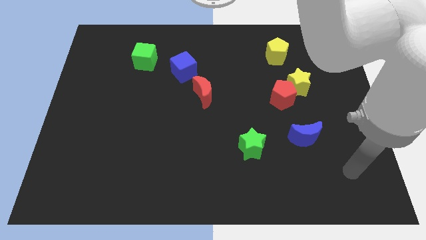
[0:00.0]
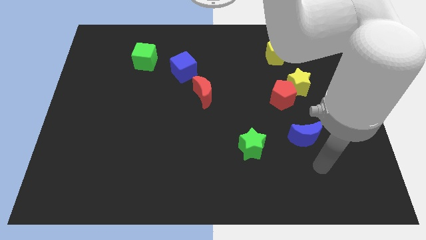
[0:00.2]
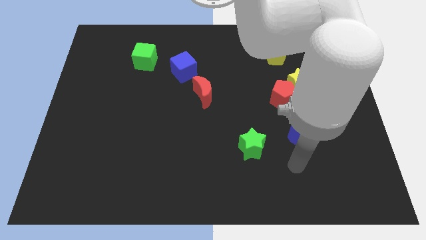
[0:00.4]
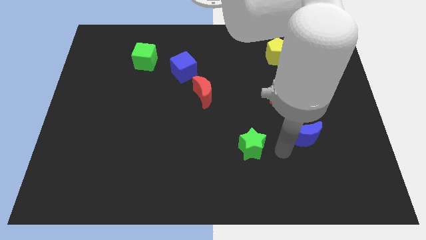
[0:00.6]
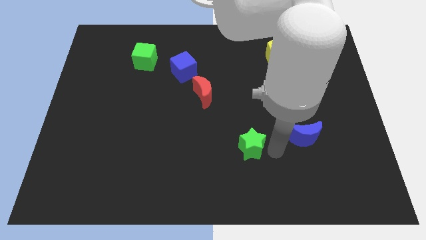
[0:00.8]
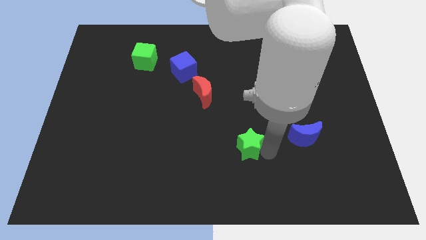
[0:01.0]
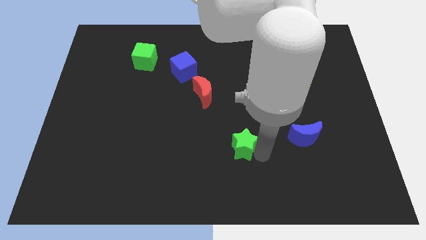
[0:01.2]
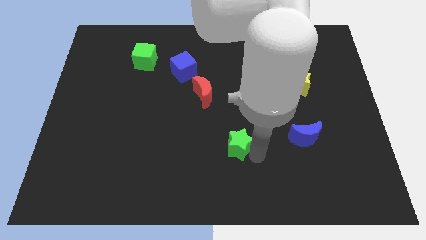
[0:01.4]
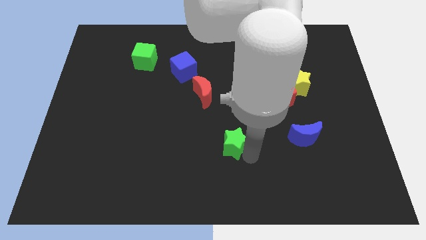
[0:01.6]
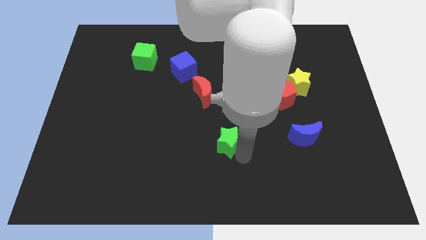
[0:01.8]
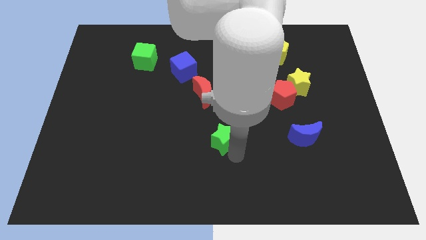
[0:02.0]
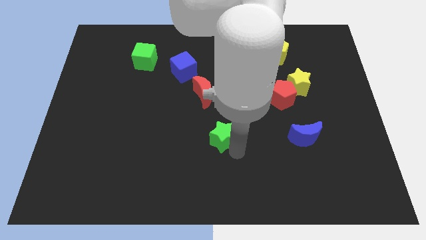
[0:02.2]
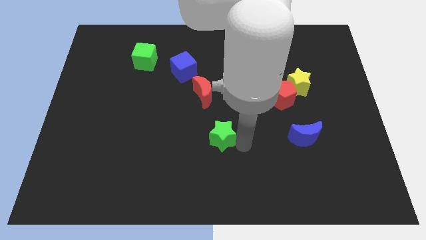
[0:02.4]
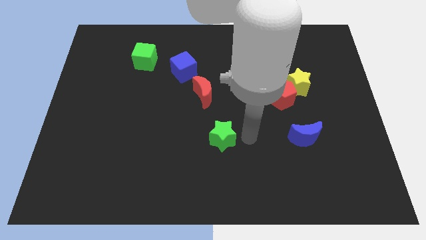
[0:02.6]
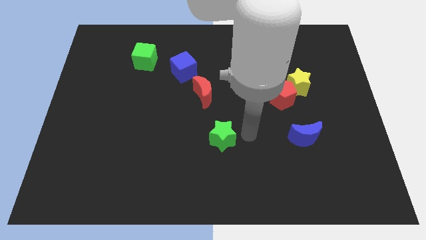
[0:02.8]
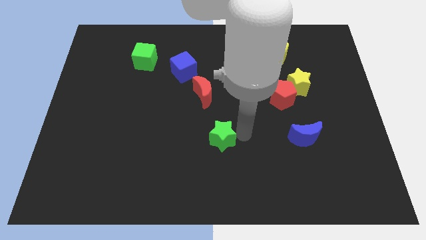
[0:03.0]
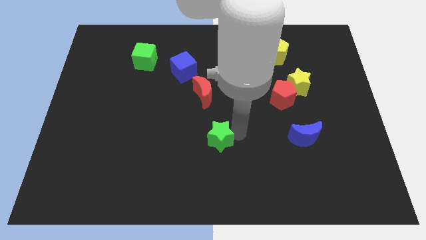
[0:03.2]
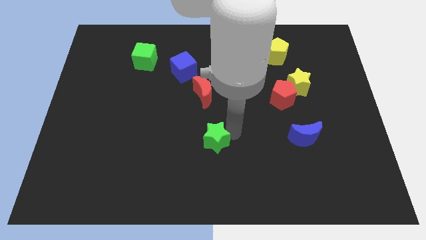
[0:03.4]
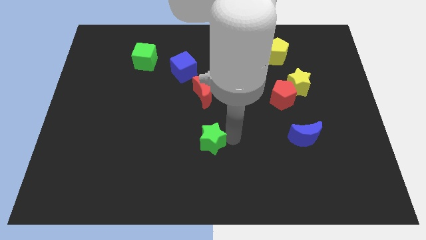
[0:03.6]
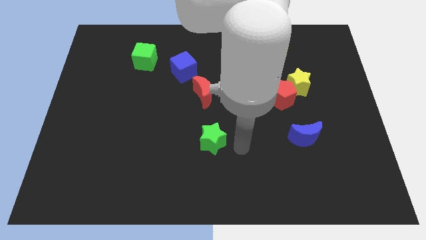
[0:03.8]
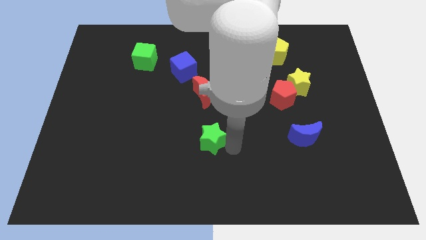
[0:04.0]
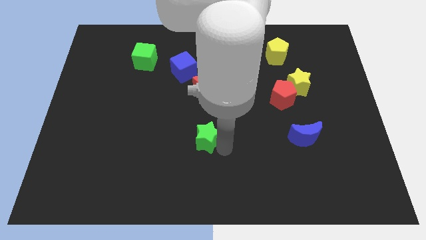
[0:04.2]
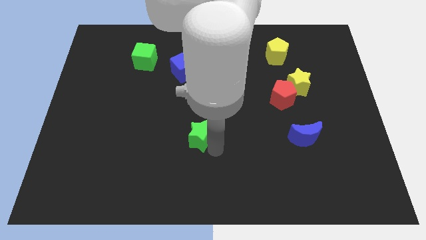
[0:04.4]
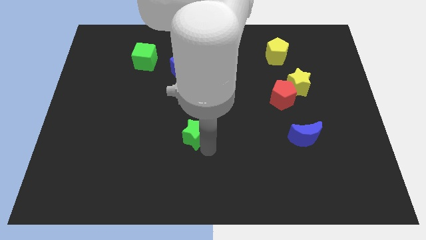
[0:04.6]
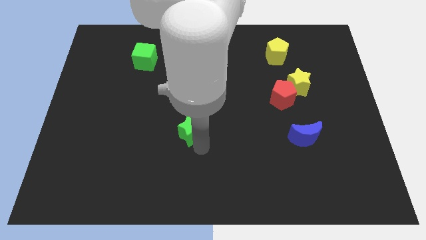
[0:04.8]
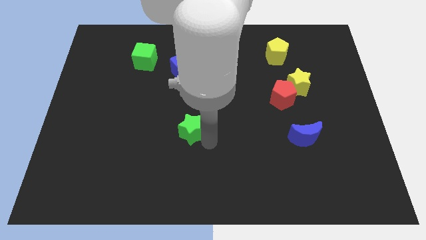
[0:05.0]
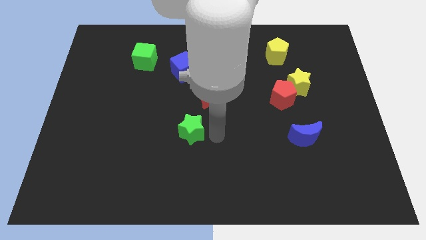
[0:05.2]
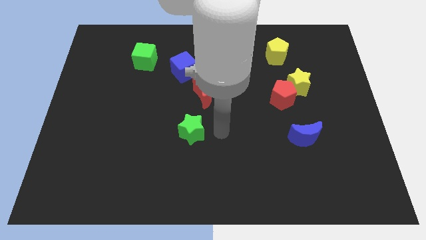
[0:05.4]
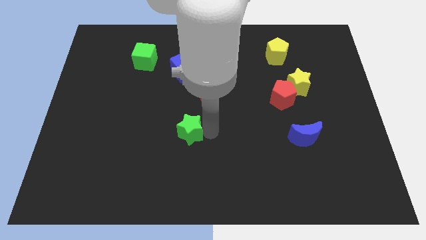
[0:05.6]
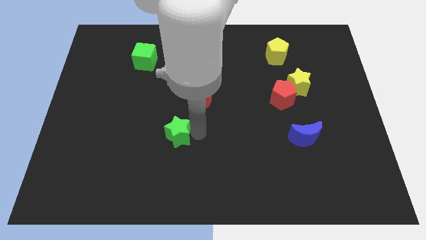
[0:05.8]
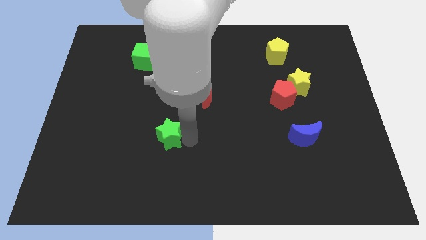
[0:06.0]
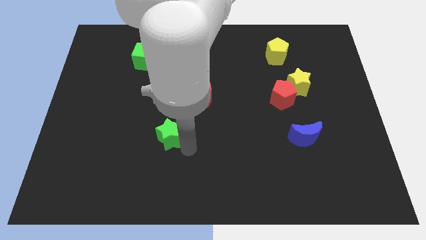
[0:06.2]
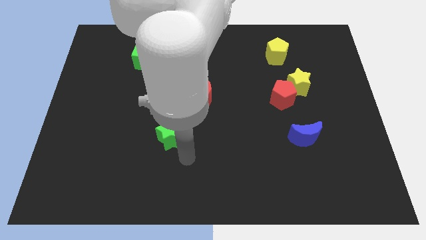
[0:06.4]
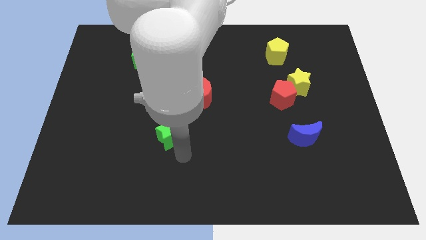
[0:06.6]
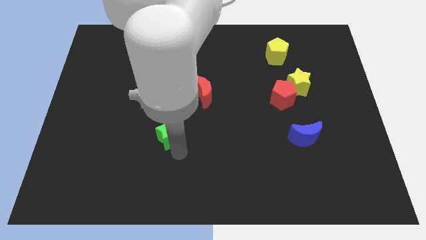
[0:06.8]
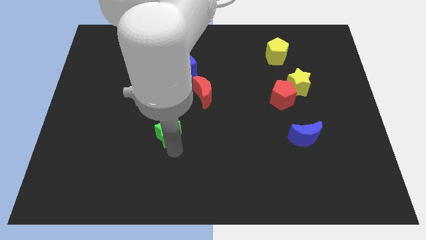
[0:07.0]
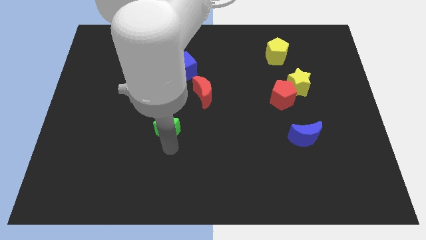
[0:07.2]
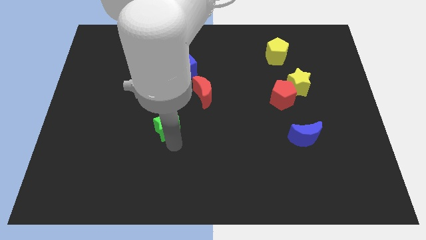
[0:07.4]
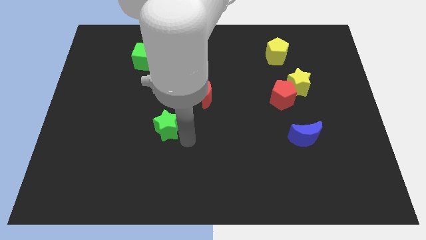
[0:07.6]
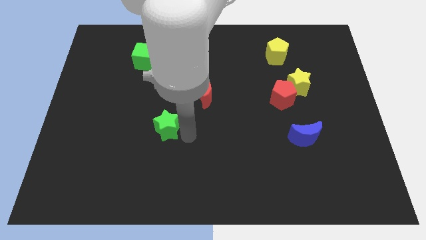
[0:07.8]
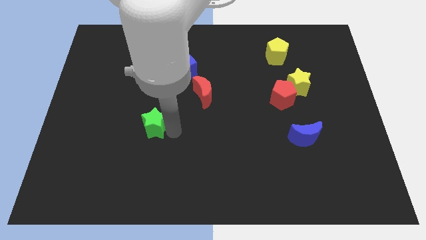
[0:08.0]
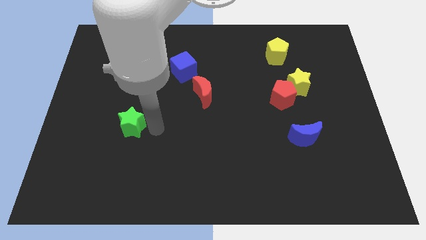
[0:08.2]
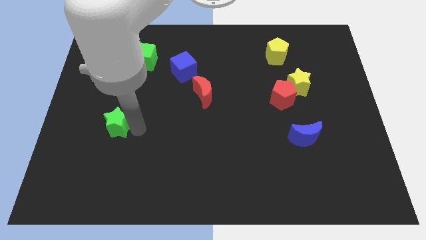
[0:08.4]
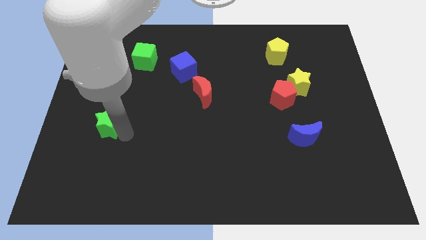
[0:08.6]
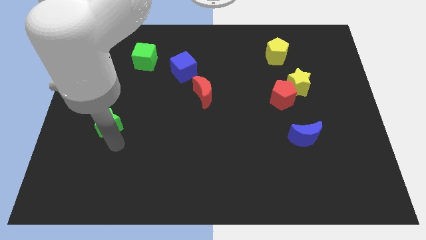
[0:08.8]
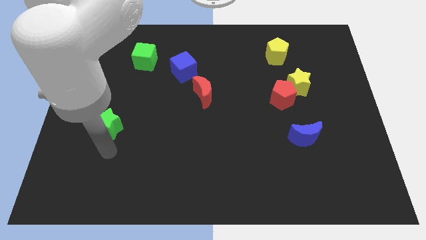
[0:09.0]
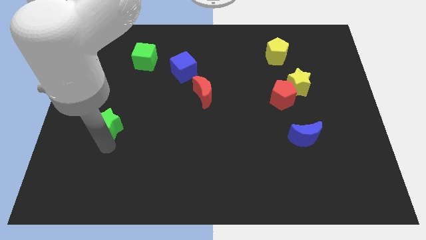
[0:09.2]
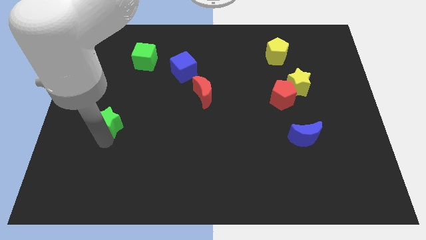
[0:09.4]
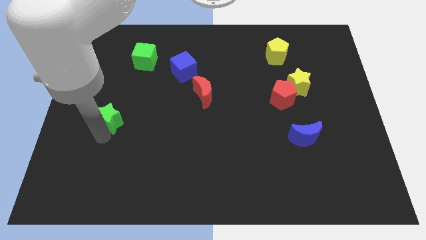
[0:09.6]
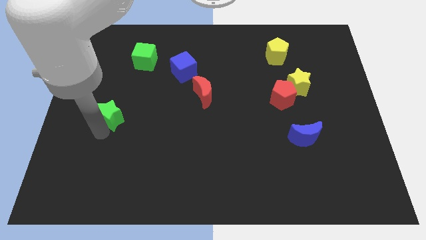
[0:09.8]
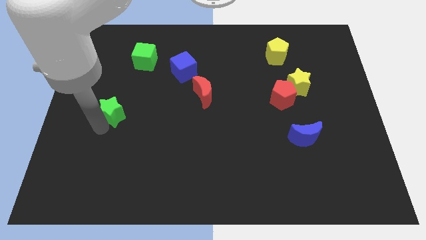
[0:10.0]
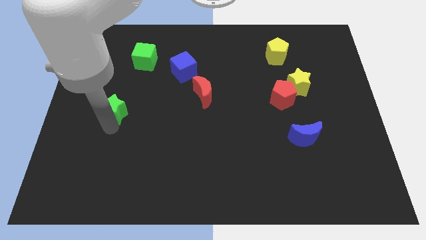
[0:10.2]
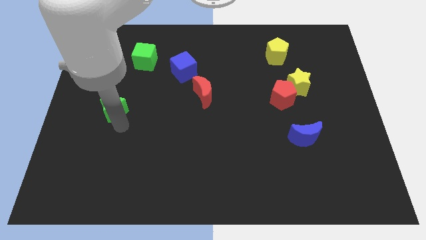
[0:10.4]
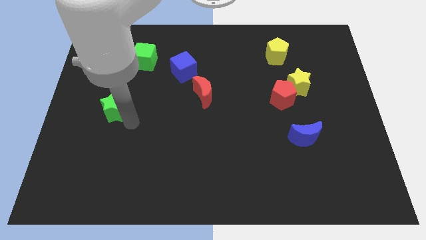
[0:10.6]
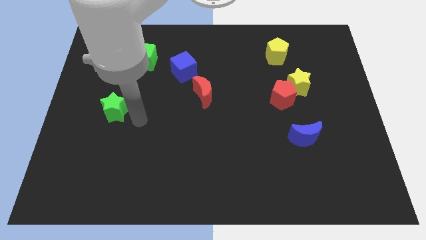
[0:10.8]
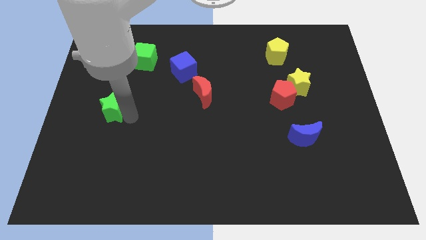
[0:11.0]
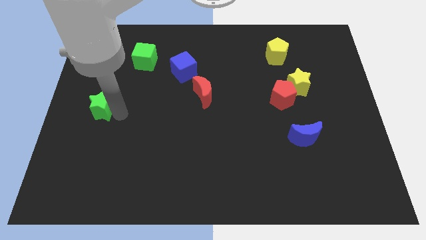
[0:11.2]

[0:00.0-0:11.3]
slide the green star to the left side

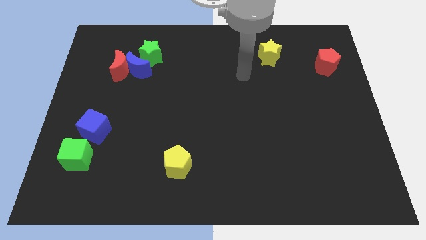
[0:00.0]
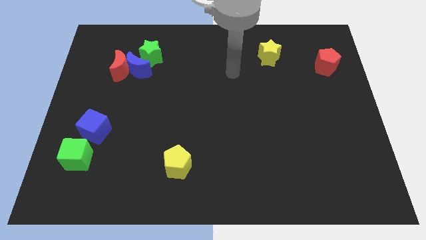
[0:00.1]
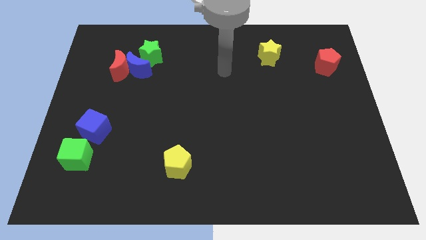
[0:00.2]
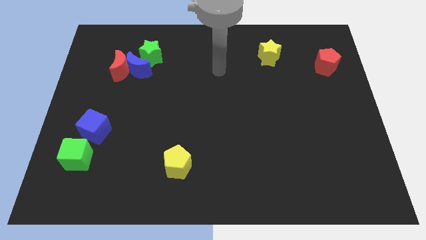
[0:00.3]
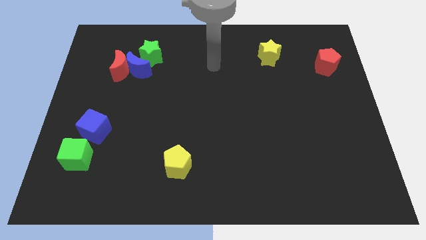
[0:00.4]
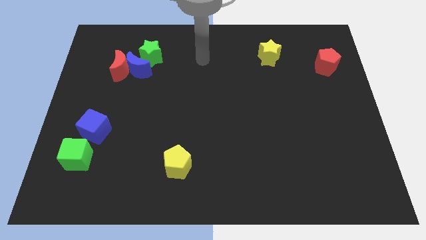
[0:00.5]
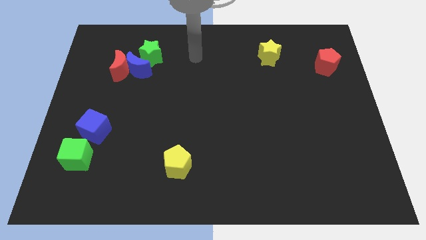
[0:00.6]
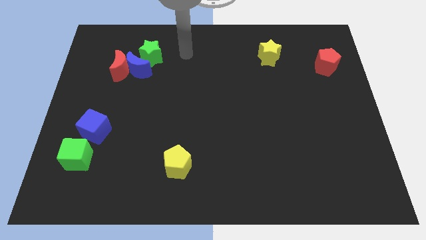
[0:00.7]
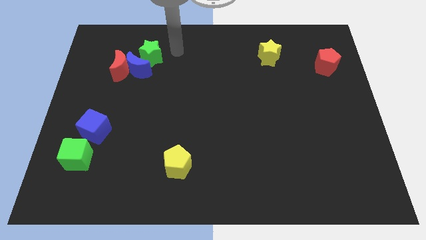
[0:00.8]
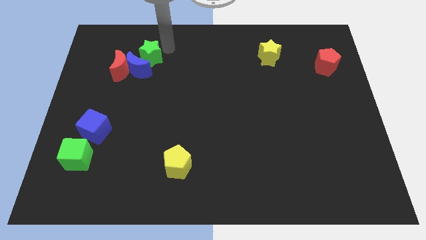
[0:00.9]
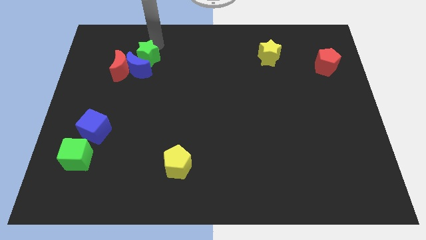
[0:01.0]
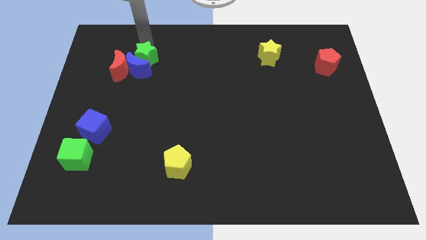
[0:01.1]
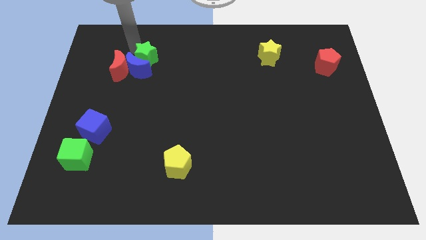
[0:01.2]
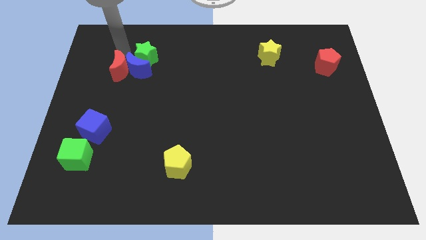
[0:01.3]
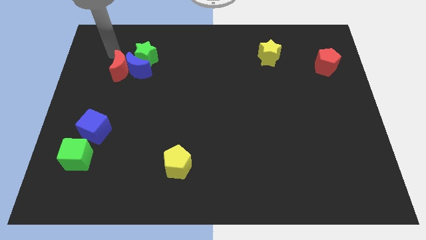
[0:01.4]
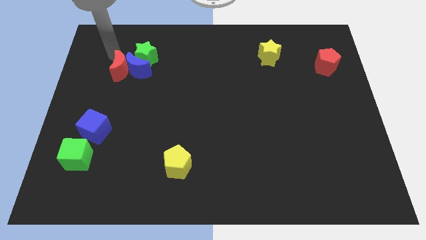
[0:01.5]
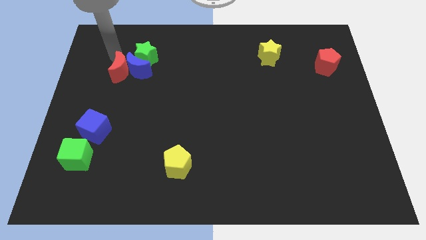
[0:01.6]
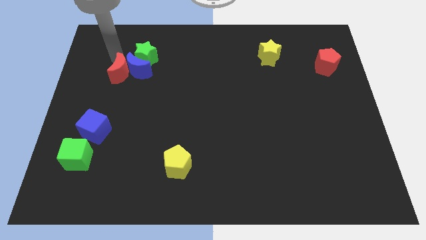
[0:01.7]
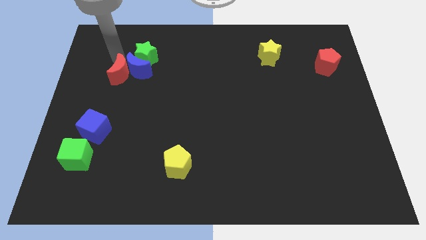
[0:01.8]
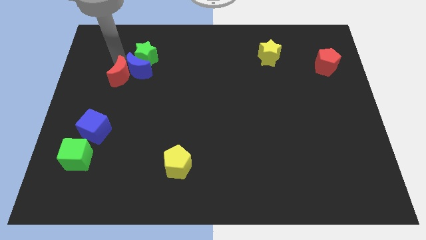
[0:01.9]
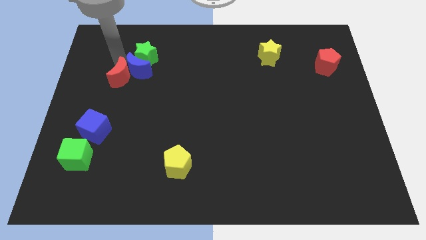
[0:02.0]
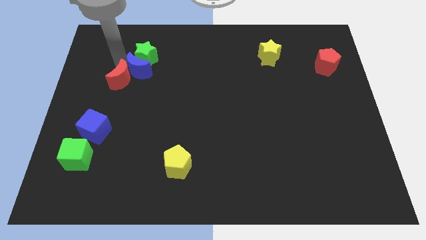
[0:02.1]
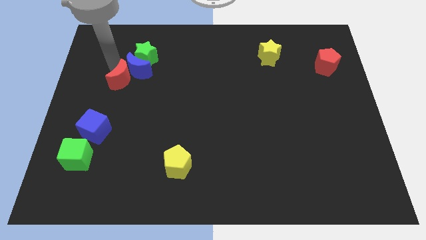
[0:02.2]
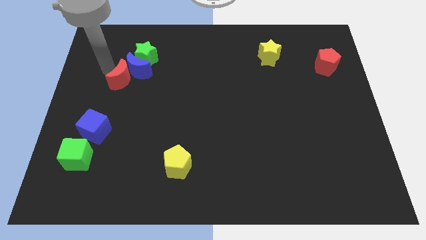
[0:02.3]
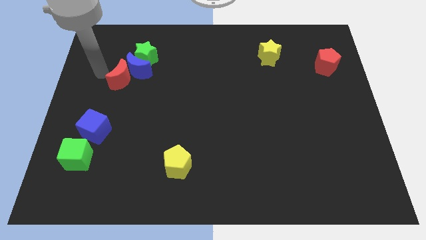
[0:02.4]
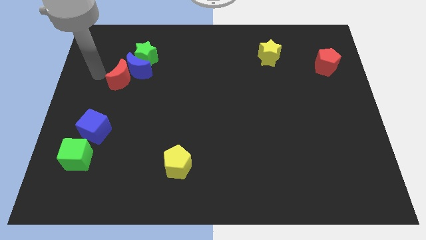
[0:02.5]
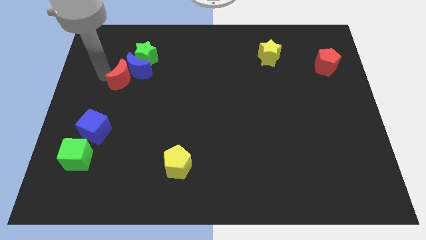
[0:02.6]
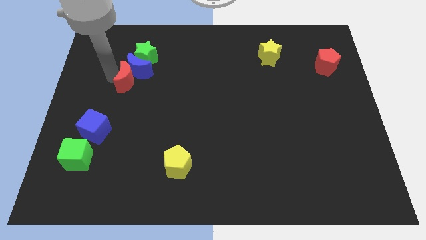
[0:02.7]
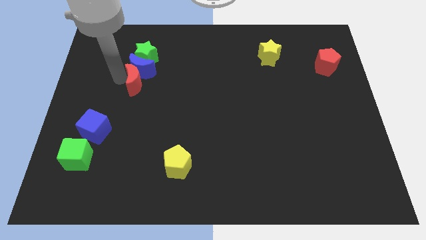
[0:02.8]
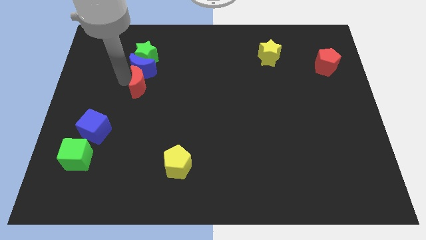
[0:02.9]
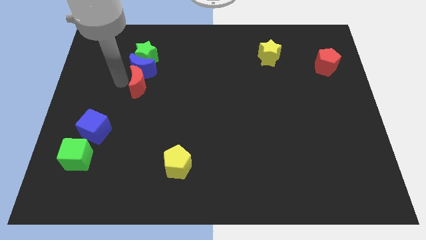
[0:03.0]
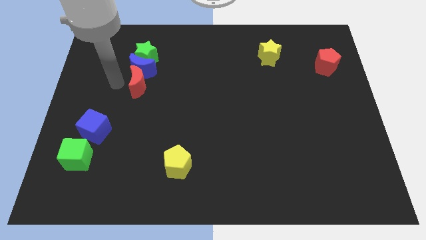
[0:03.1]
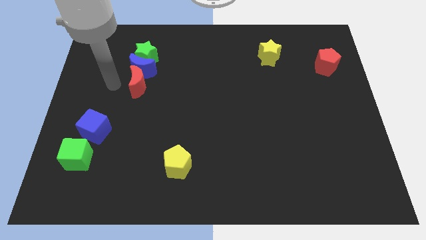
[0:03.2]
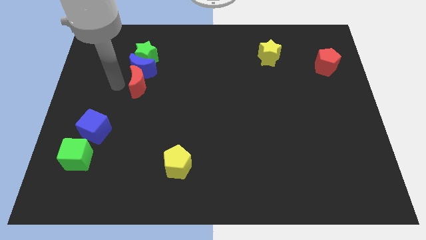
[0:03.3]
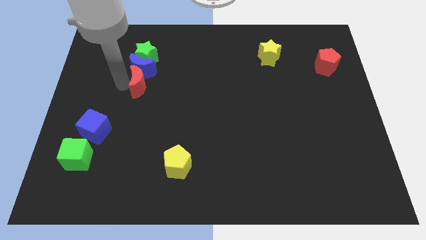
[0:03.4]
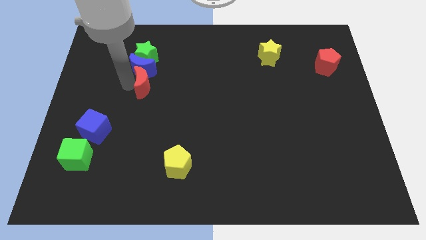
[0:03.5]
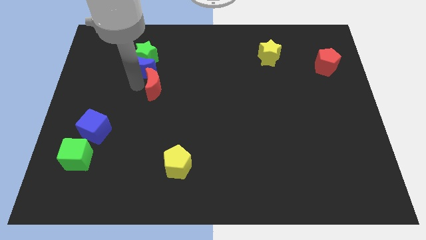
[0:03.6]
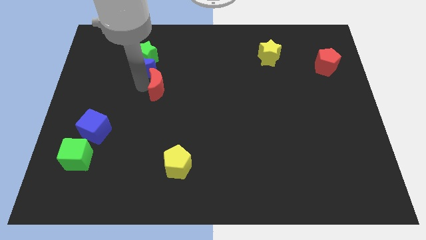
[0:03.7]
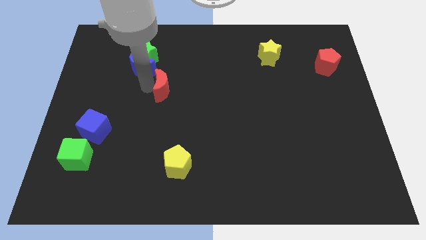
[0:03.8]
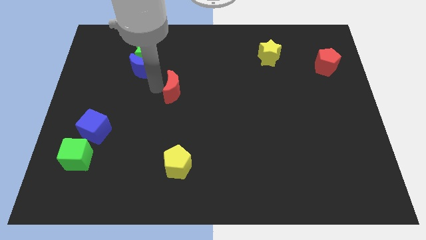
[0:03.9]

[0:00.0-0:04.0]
slide the red moon to the center
